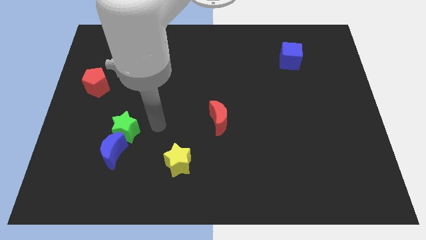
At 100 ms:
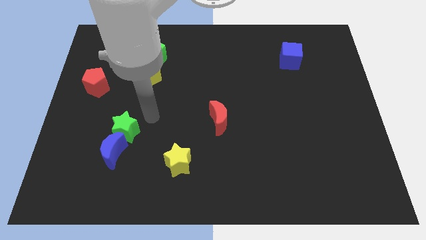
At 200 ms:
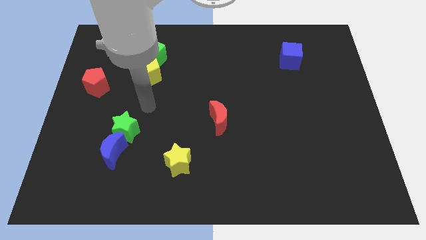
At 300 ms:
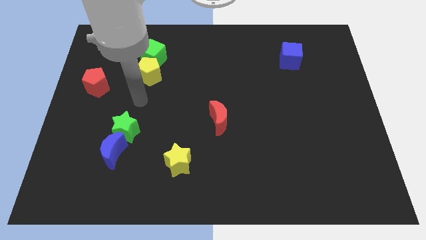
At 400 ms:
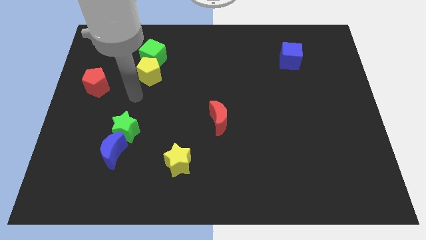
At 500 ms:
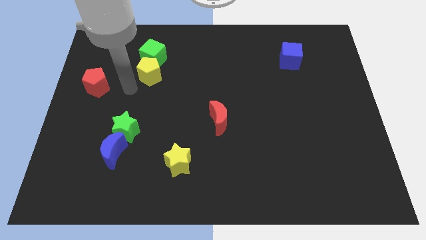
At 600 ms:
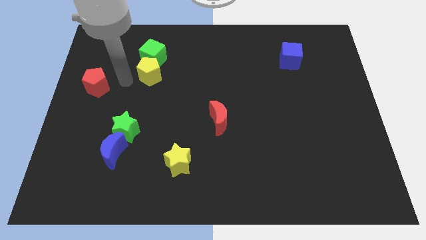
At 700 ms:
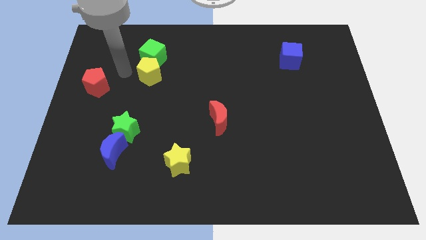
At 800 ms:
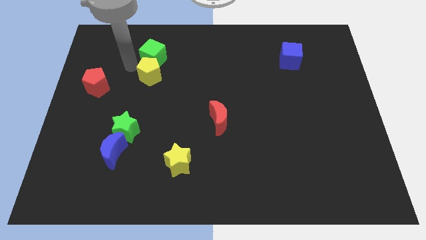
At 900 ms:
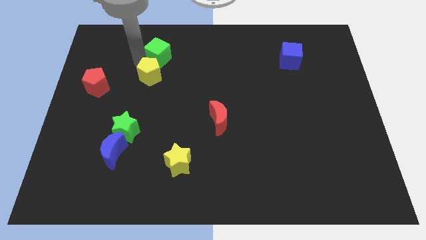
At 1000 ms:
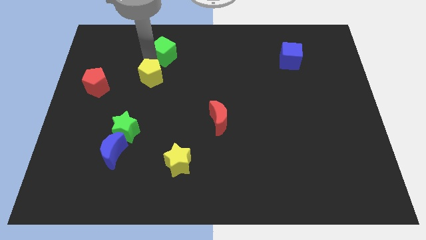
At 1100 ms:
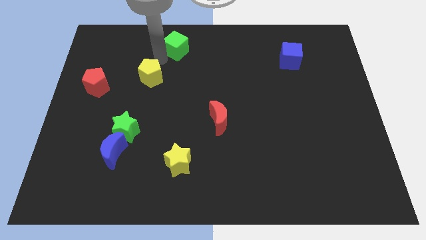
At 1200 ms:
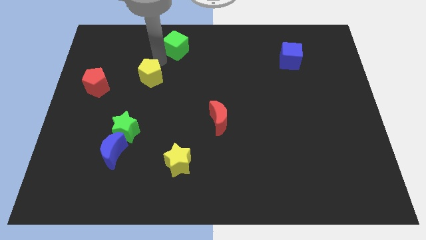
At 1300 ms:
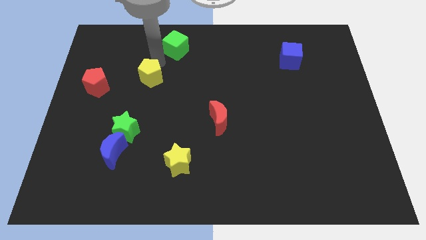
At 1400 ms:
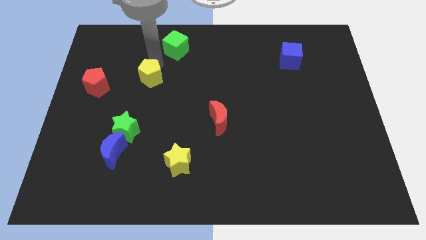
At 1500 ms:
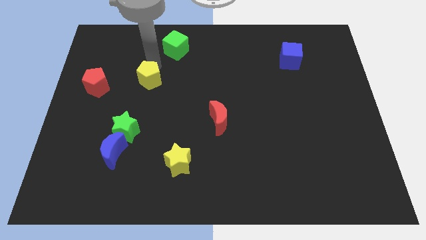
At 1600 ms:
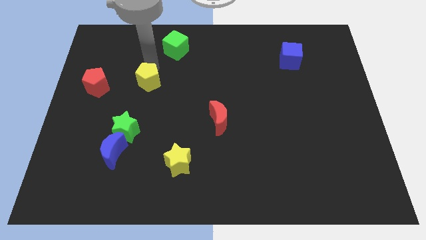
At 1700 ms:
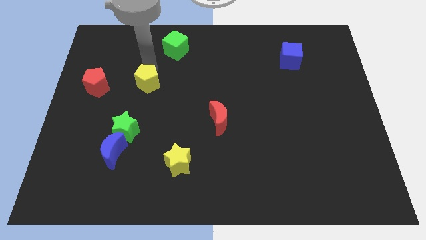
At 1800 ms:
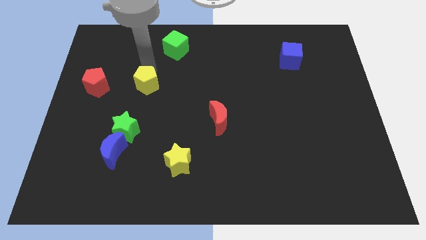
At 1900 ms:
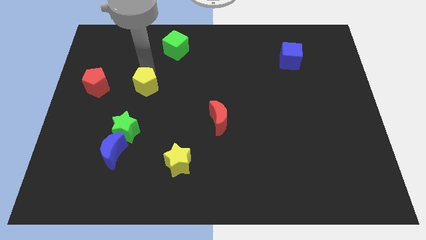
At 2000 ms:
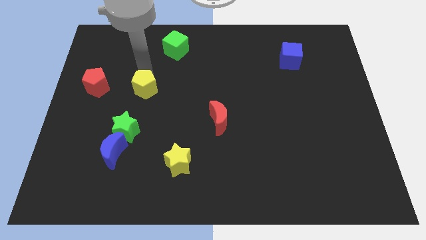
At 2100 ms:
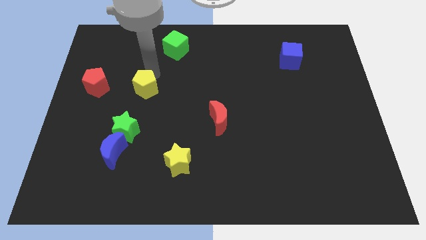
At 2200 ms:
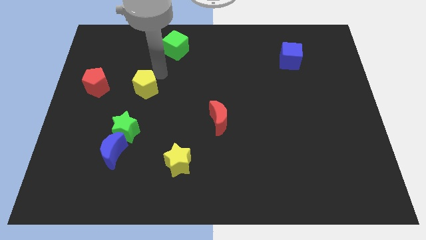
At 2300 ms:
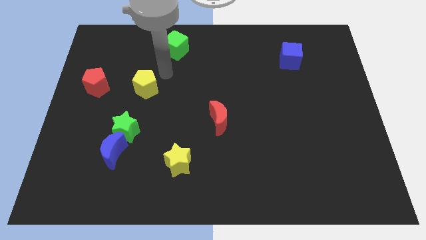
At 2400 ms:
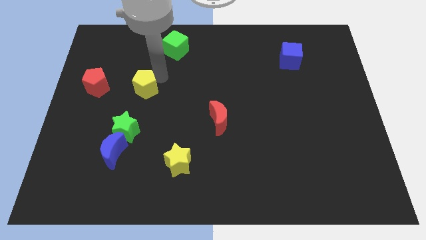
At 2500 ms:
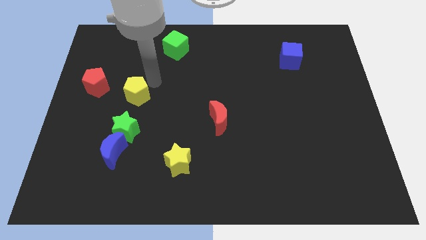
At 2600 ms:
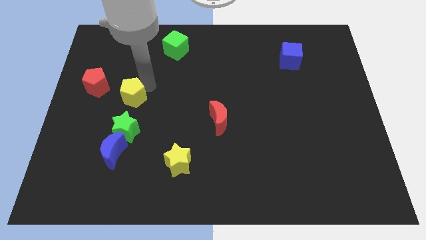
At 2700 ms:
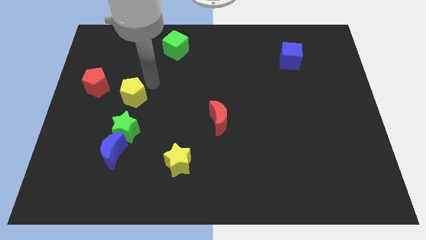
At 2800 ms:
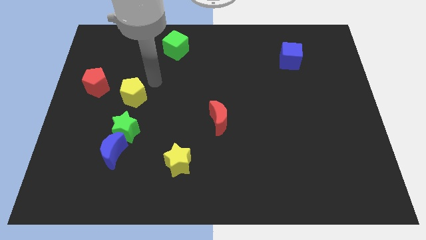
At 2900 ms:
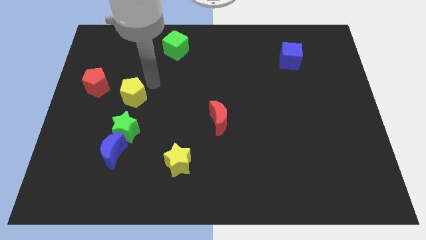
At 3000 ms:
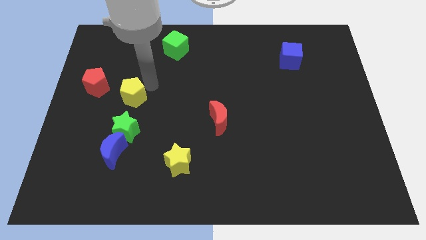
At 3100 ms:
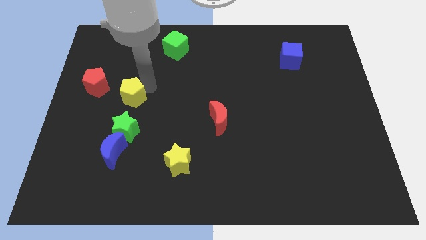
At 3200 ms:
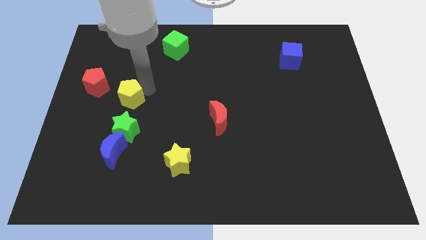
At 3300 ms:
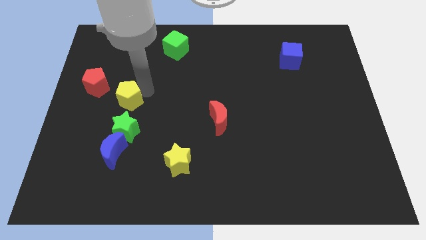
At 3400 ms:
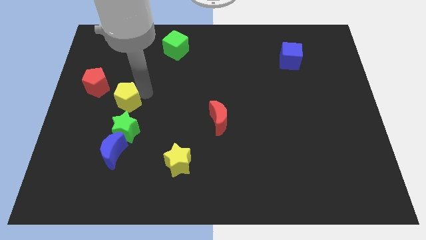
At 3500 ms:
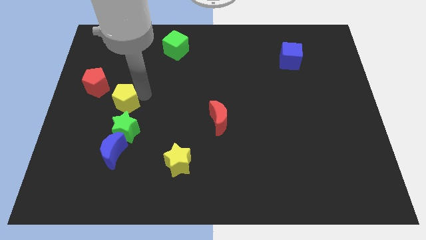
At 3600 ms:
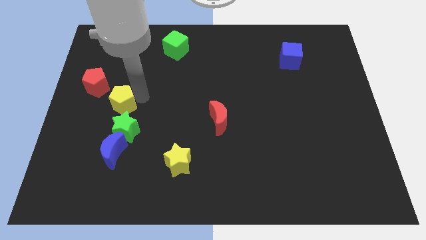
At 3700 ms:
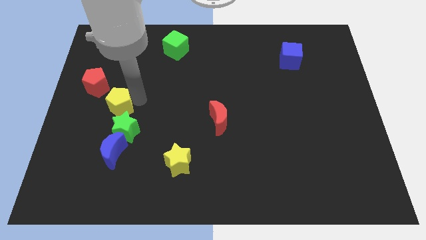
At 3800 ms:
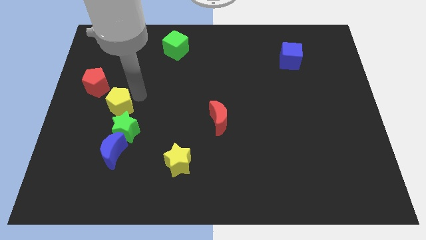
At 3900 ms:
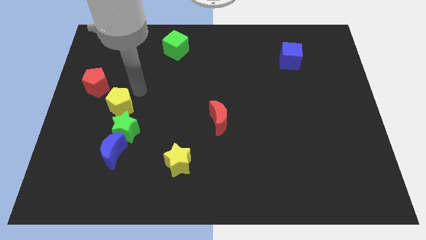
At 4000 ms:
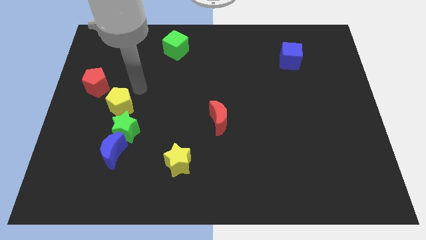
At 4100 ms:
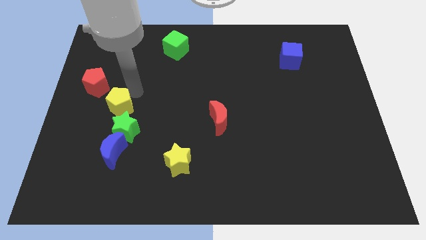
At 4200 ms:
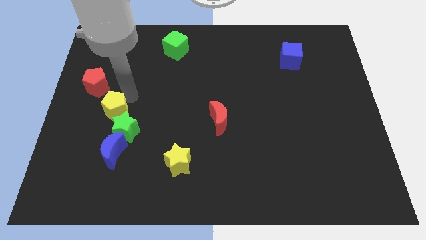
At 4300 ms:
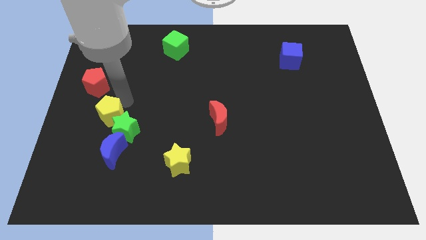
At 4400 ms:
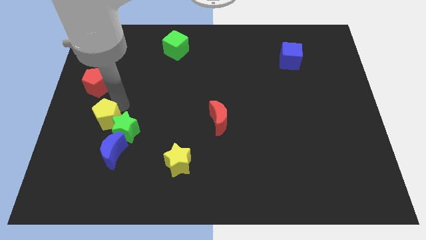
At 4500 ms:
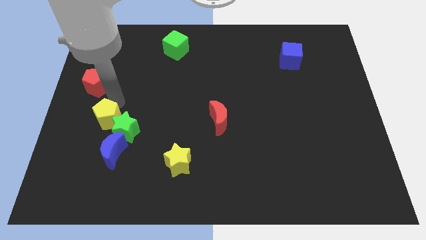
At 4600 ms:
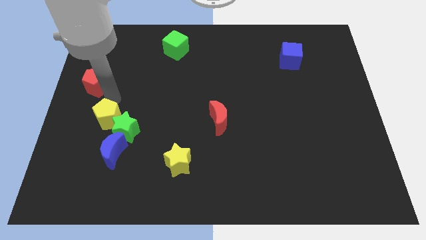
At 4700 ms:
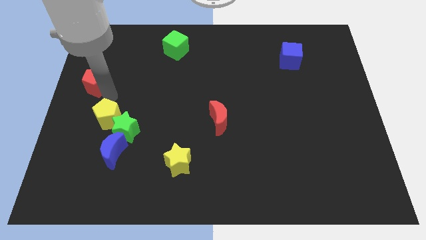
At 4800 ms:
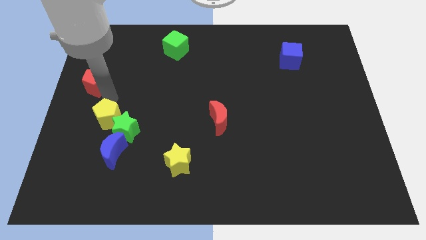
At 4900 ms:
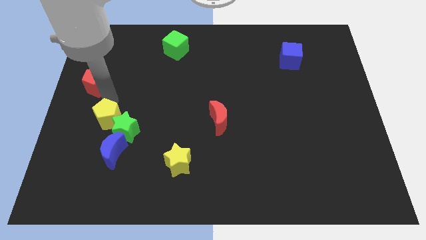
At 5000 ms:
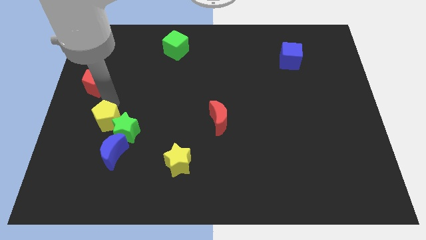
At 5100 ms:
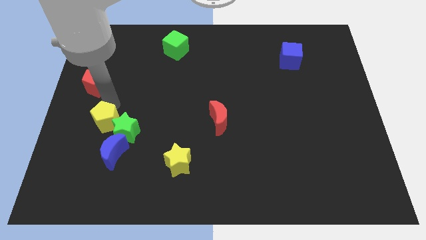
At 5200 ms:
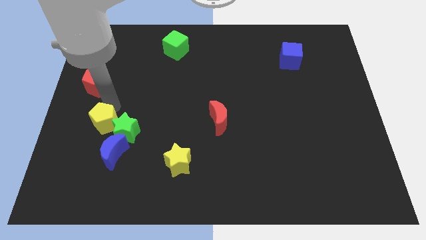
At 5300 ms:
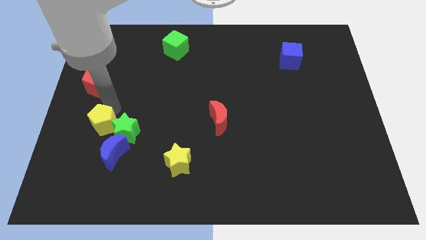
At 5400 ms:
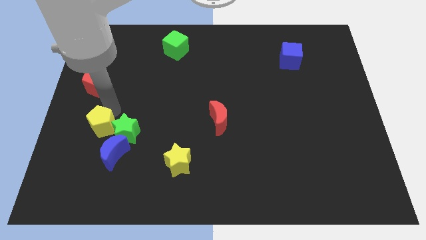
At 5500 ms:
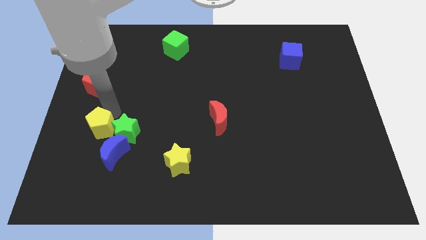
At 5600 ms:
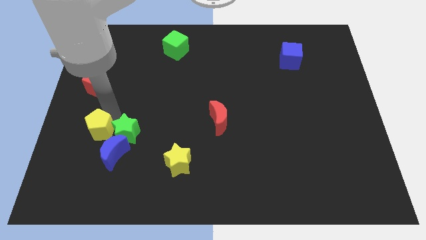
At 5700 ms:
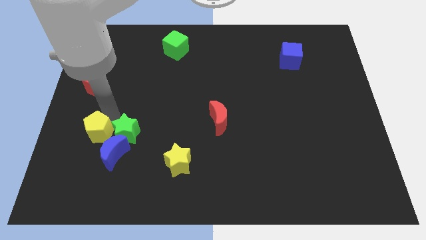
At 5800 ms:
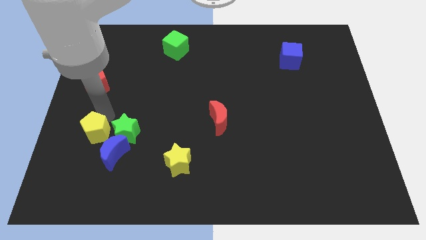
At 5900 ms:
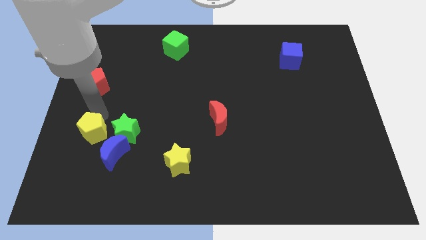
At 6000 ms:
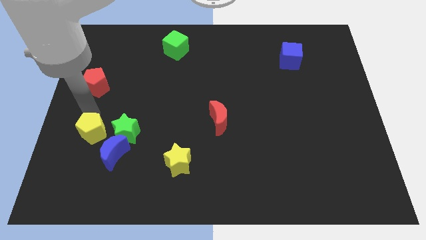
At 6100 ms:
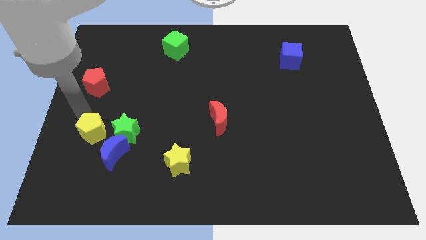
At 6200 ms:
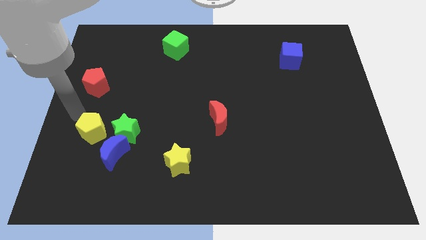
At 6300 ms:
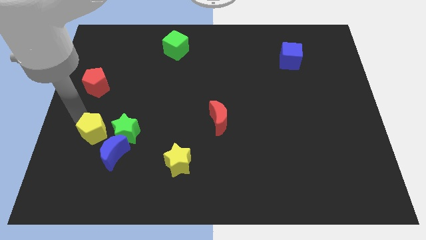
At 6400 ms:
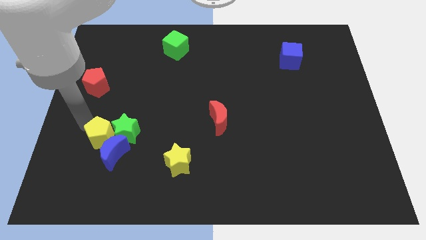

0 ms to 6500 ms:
put the yellow pentagon to the blue moon
